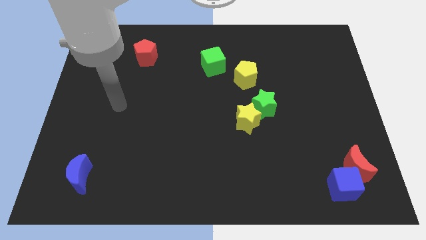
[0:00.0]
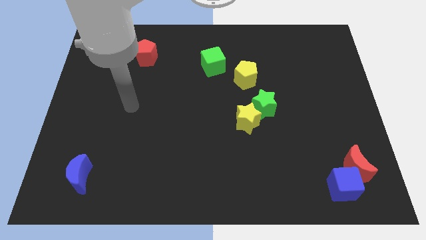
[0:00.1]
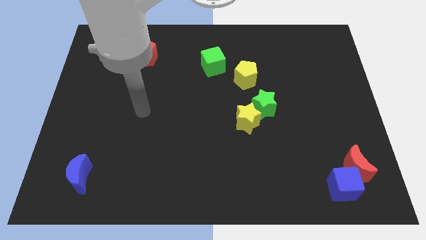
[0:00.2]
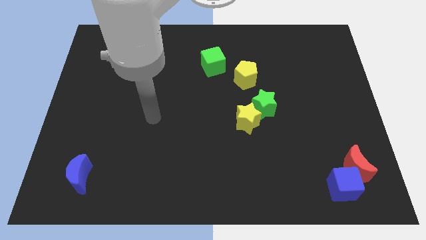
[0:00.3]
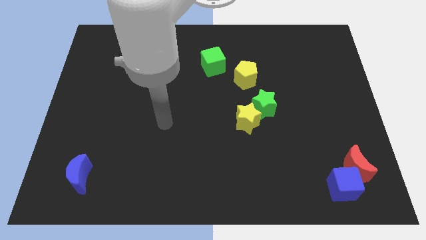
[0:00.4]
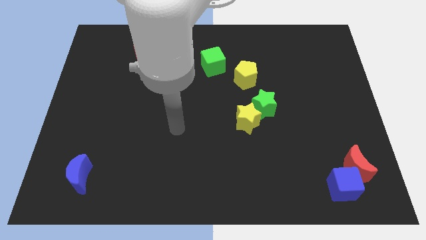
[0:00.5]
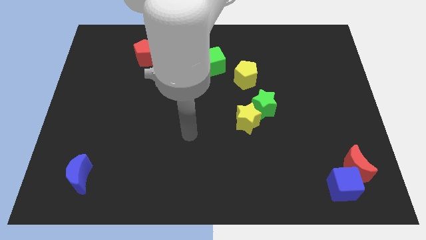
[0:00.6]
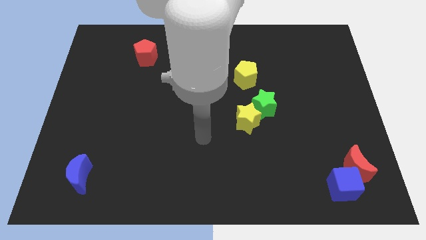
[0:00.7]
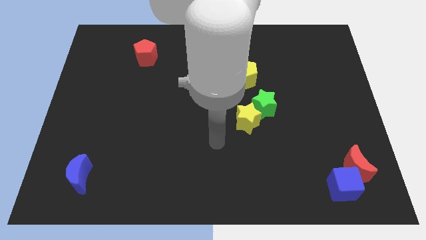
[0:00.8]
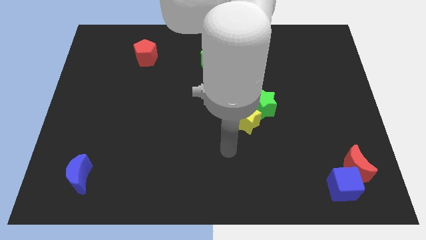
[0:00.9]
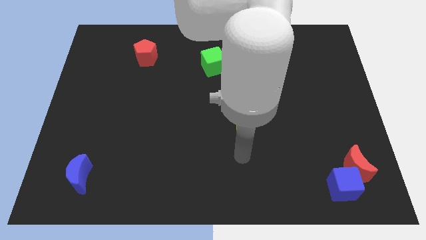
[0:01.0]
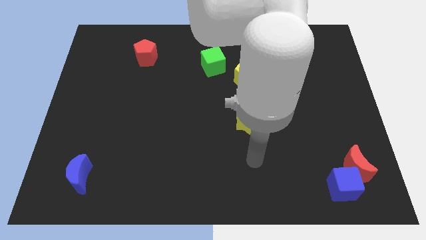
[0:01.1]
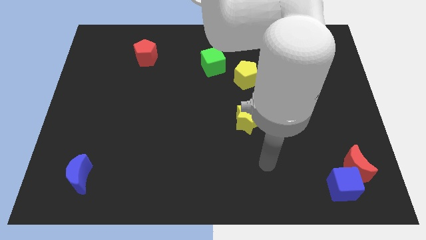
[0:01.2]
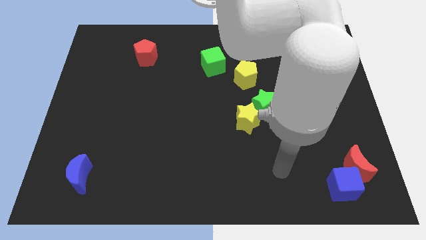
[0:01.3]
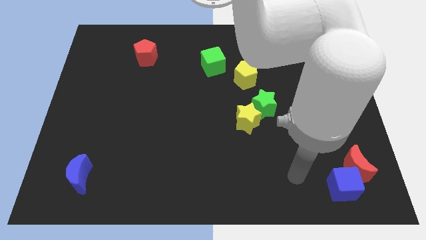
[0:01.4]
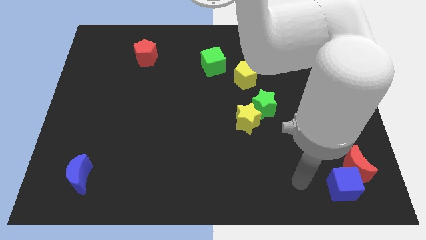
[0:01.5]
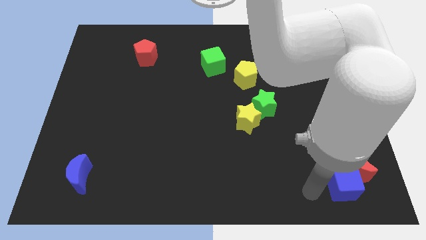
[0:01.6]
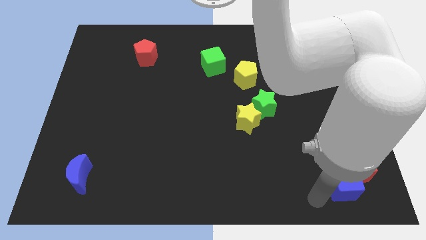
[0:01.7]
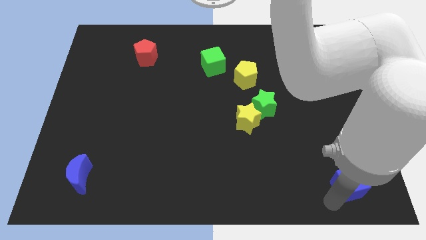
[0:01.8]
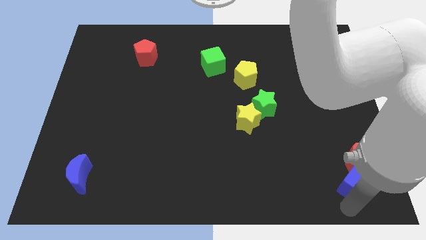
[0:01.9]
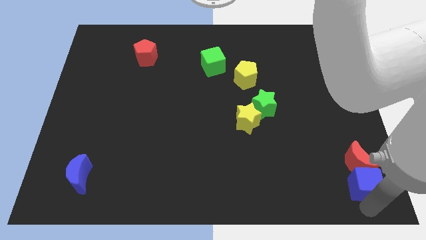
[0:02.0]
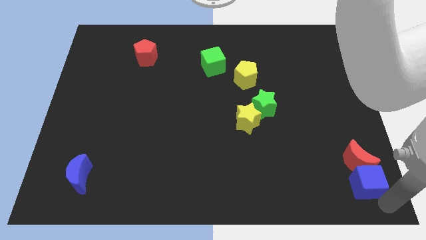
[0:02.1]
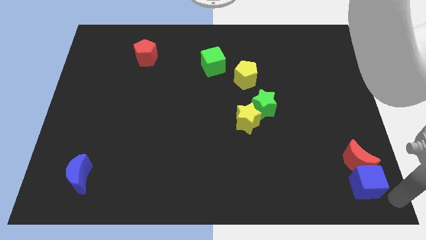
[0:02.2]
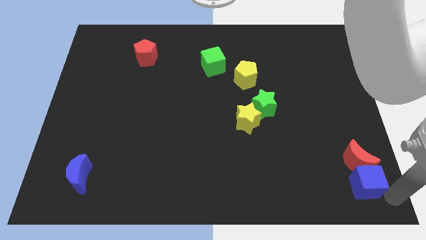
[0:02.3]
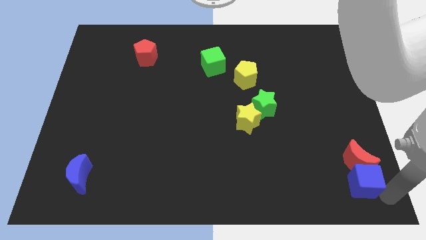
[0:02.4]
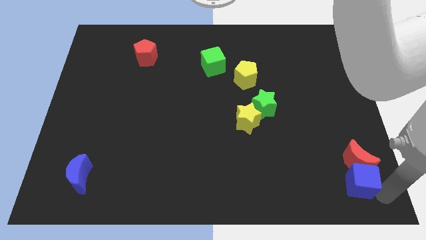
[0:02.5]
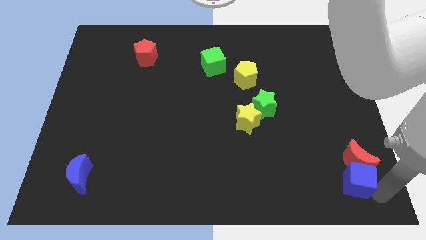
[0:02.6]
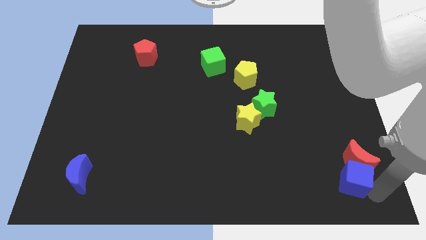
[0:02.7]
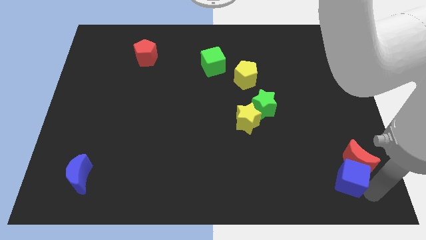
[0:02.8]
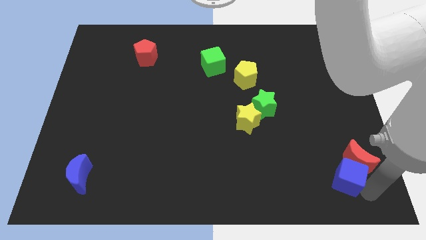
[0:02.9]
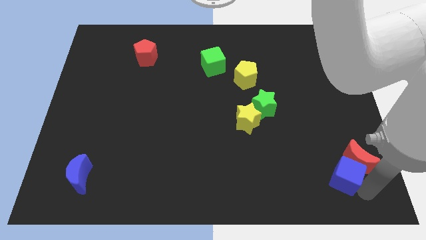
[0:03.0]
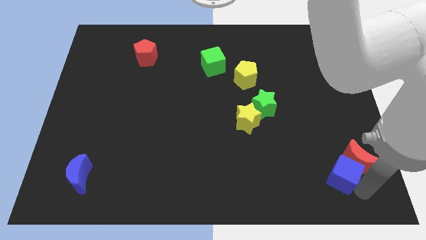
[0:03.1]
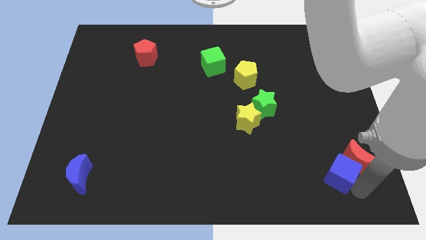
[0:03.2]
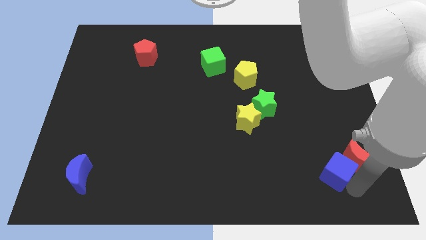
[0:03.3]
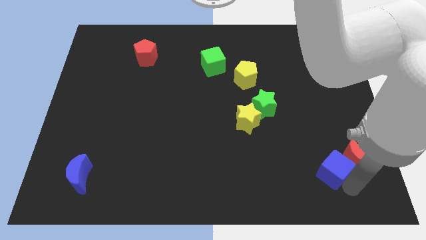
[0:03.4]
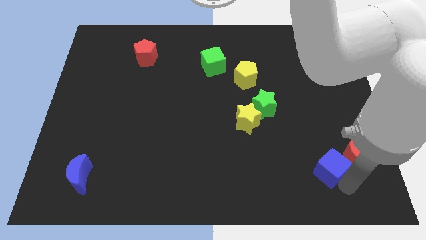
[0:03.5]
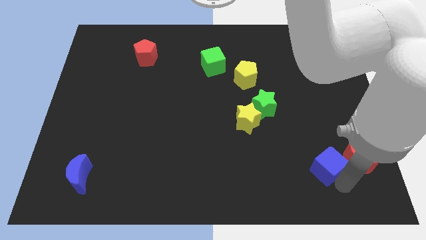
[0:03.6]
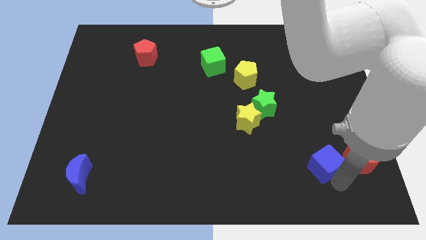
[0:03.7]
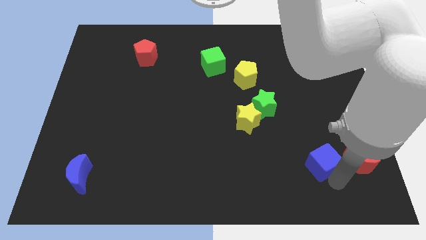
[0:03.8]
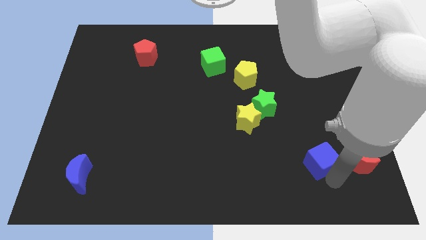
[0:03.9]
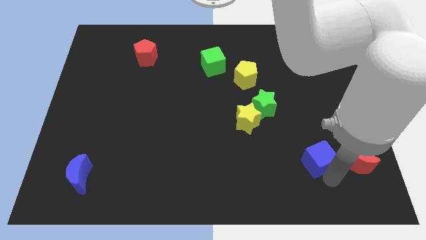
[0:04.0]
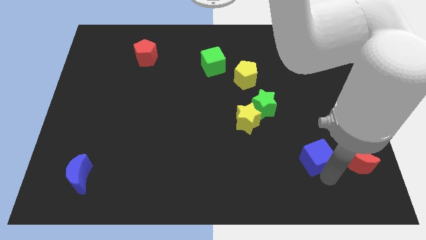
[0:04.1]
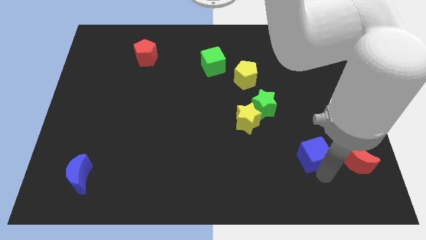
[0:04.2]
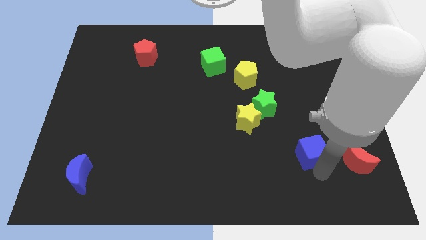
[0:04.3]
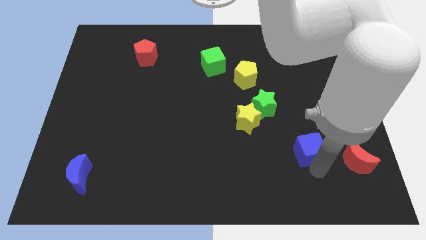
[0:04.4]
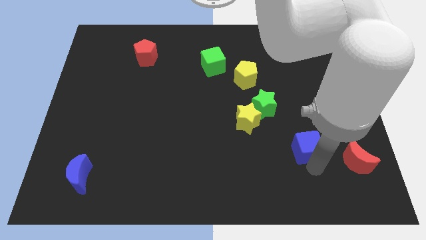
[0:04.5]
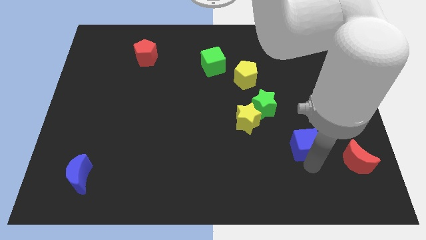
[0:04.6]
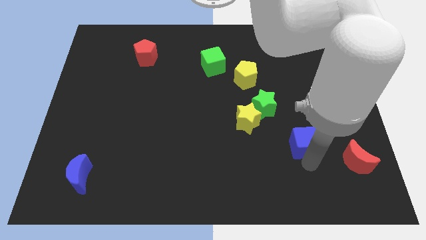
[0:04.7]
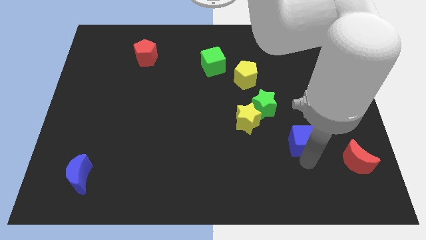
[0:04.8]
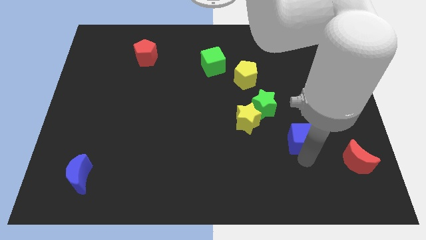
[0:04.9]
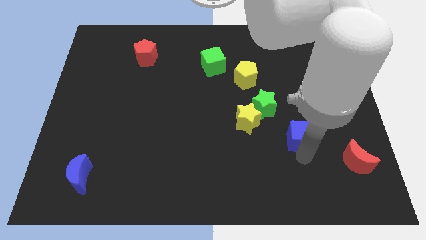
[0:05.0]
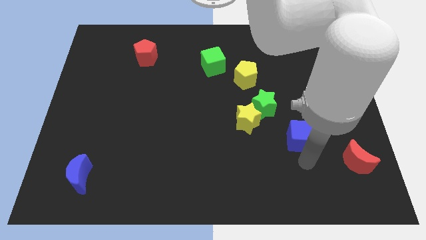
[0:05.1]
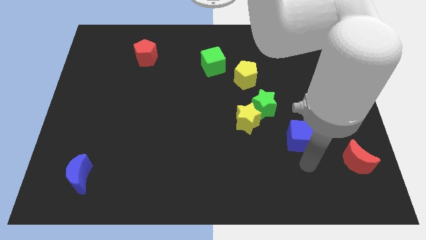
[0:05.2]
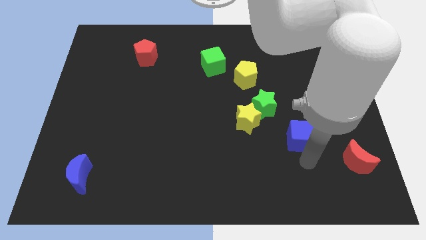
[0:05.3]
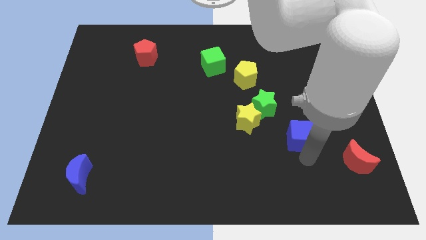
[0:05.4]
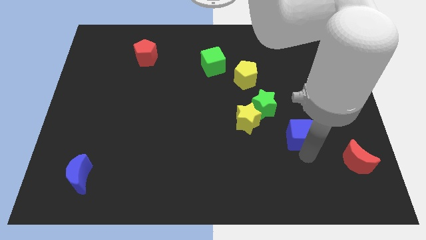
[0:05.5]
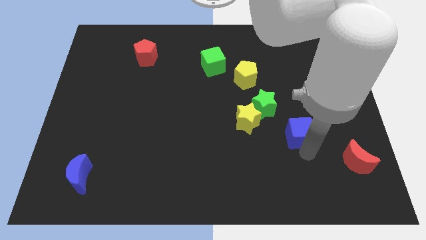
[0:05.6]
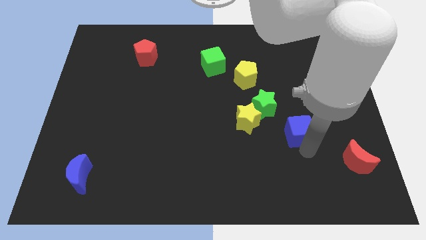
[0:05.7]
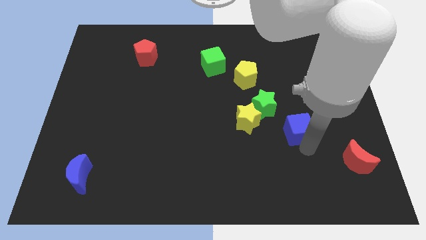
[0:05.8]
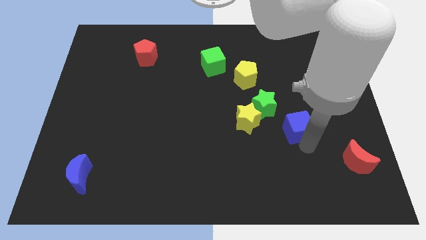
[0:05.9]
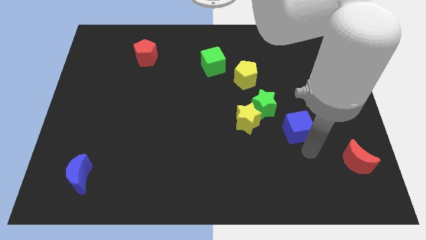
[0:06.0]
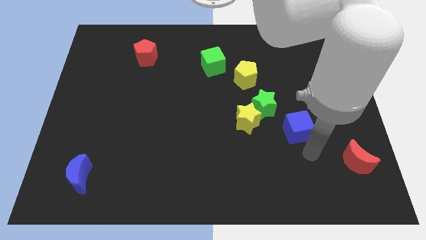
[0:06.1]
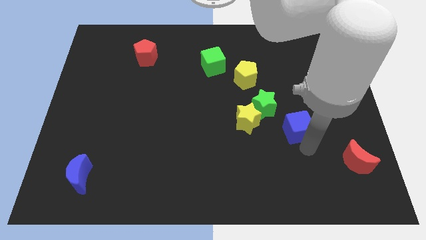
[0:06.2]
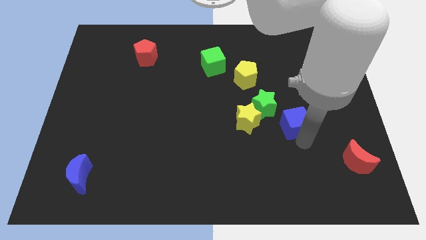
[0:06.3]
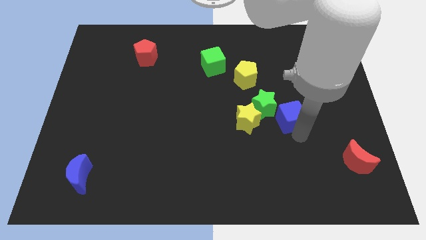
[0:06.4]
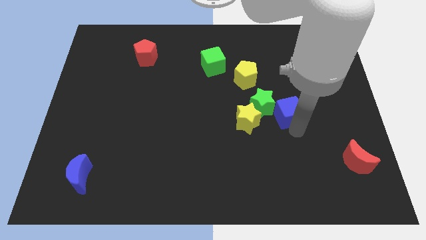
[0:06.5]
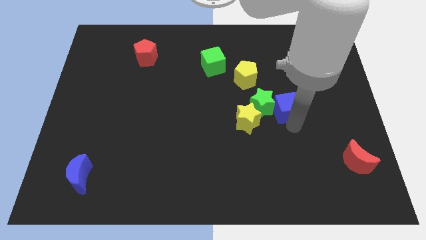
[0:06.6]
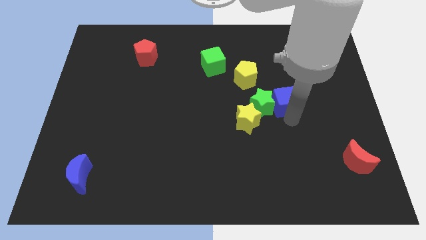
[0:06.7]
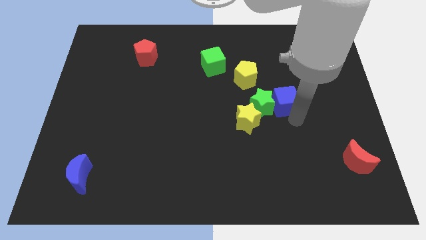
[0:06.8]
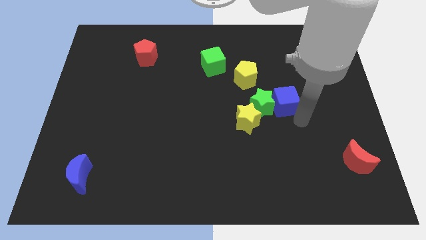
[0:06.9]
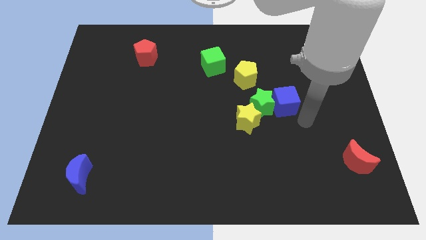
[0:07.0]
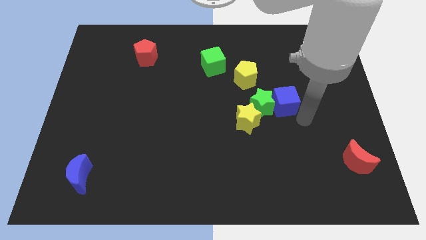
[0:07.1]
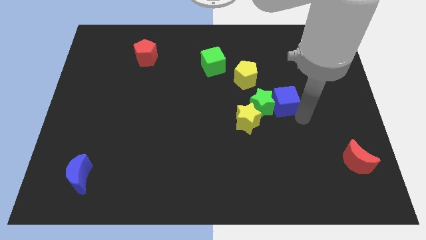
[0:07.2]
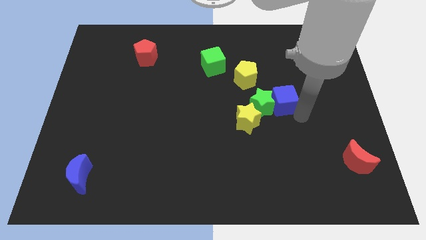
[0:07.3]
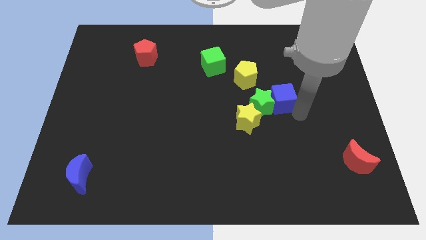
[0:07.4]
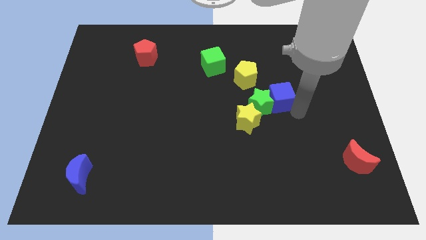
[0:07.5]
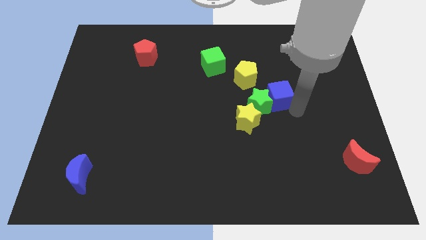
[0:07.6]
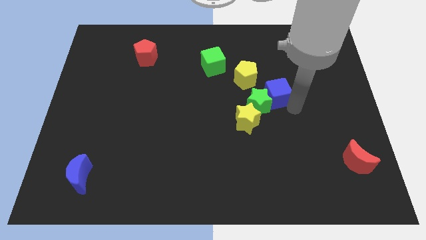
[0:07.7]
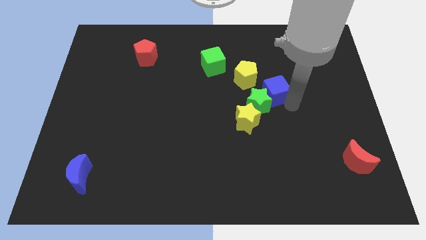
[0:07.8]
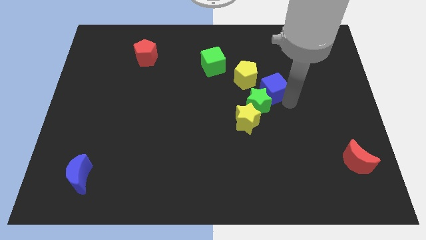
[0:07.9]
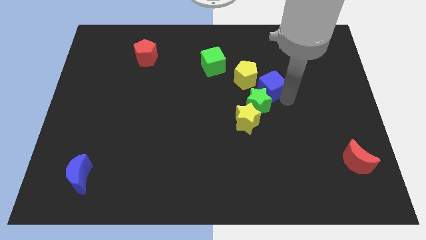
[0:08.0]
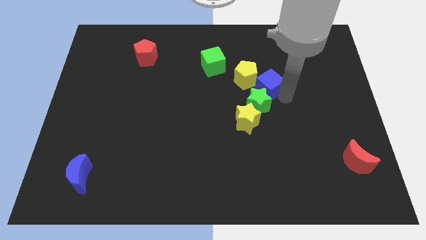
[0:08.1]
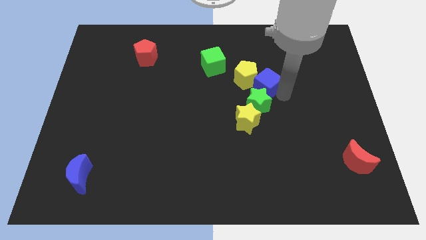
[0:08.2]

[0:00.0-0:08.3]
move the blue cube towards the yellow pentagon
